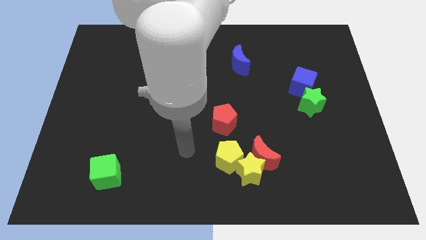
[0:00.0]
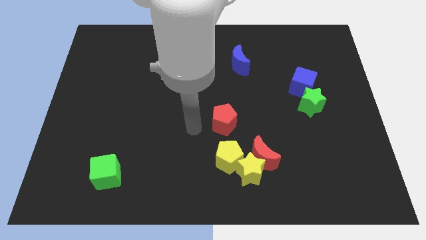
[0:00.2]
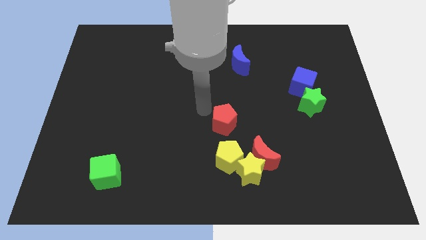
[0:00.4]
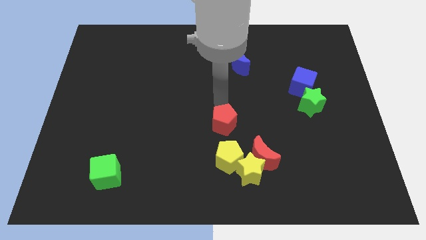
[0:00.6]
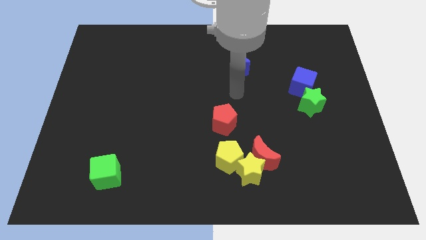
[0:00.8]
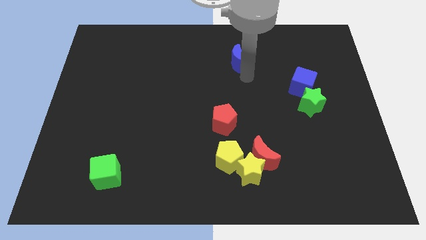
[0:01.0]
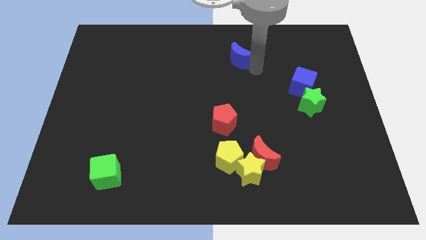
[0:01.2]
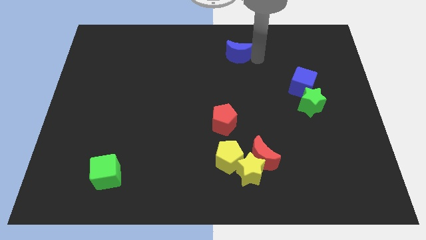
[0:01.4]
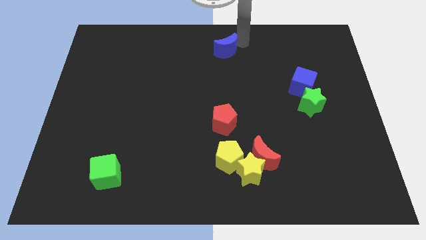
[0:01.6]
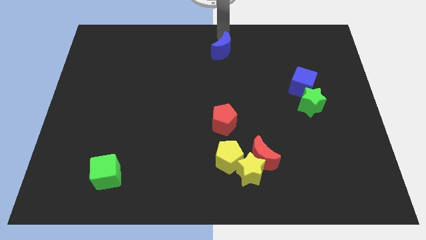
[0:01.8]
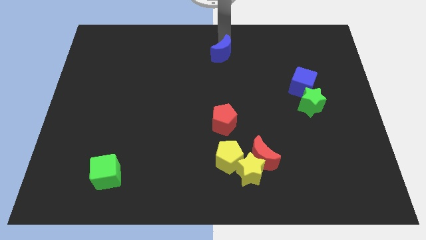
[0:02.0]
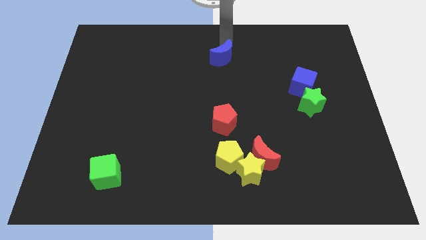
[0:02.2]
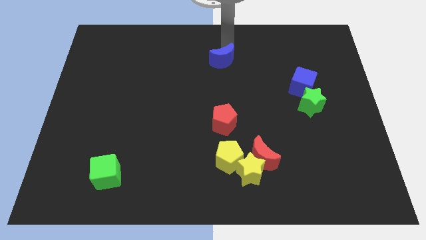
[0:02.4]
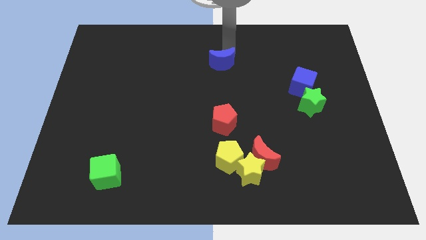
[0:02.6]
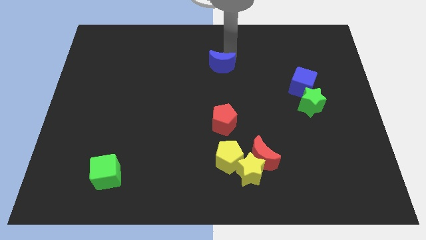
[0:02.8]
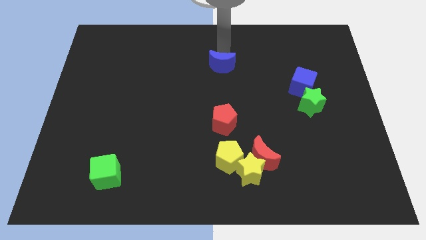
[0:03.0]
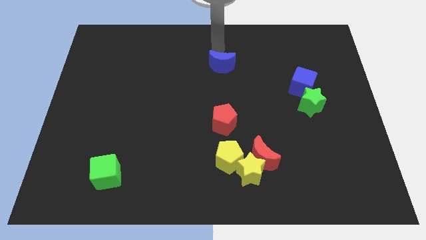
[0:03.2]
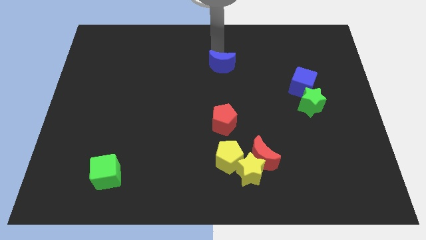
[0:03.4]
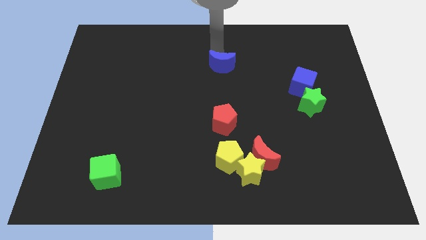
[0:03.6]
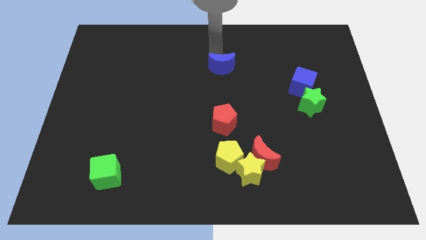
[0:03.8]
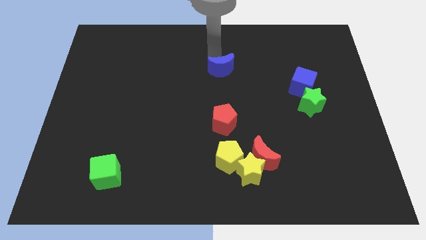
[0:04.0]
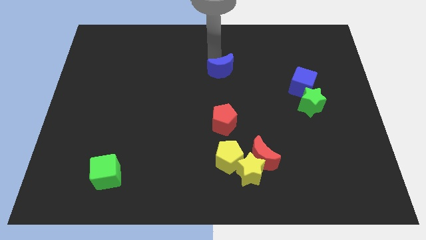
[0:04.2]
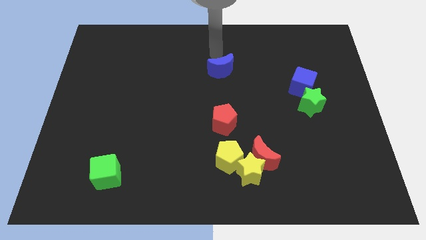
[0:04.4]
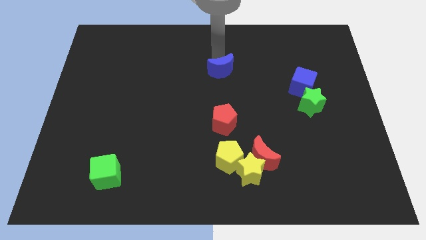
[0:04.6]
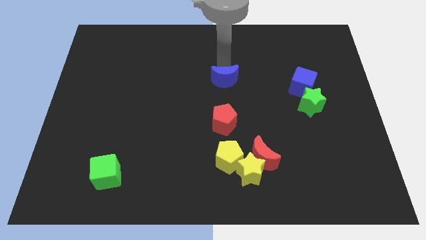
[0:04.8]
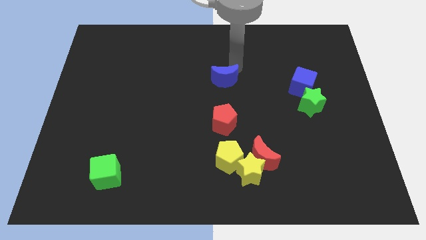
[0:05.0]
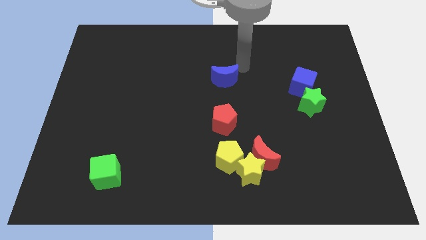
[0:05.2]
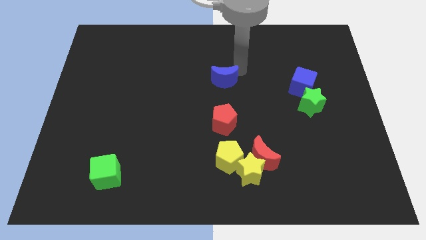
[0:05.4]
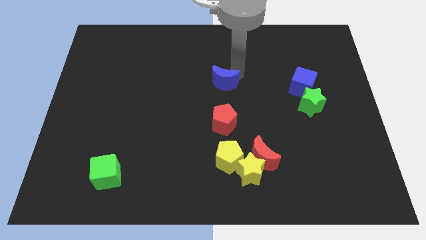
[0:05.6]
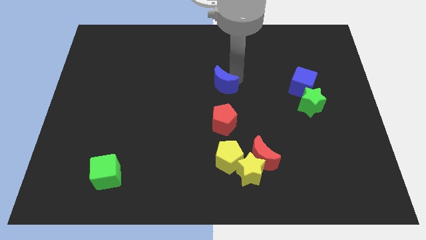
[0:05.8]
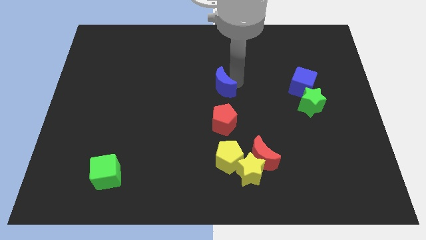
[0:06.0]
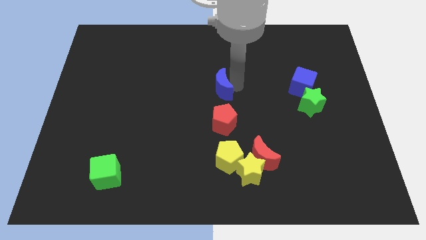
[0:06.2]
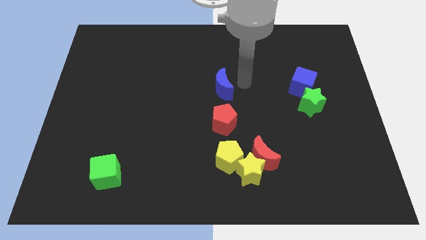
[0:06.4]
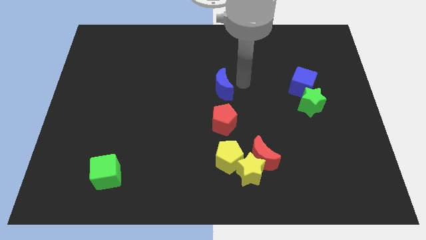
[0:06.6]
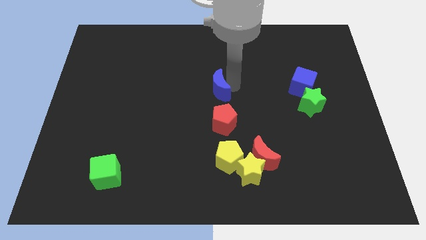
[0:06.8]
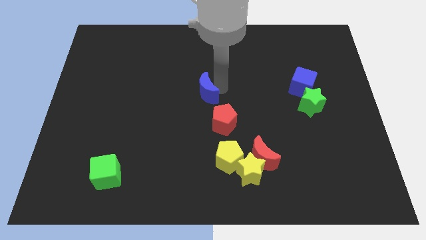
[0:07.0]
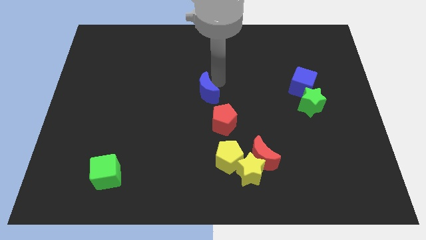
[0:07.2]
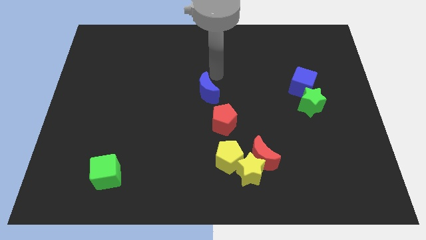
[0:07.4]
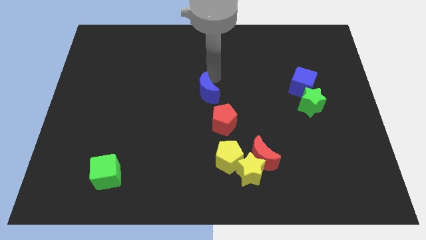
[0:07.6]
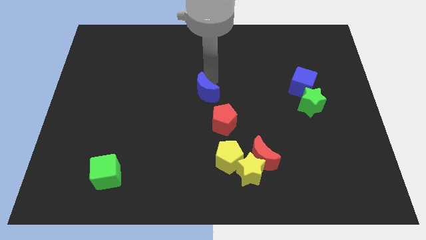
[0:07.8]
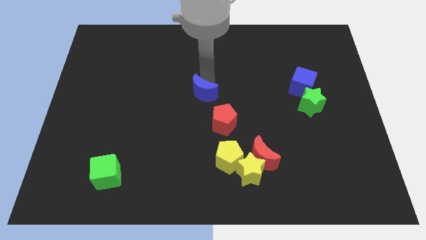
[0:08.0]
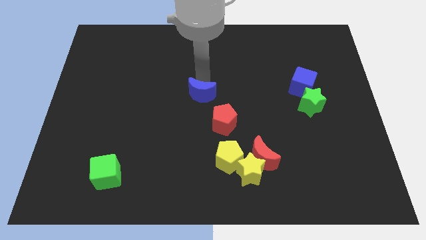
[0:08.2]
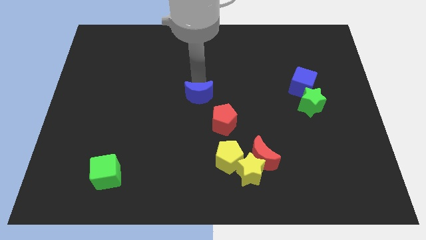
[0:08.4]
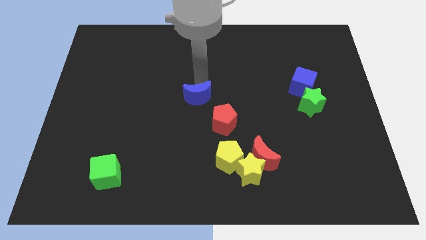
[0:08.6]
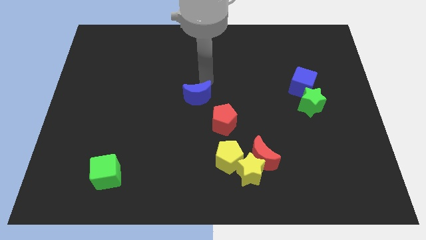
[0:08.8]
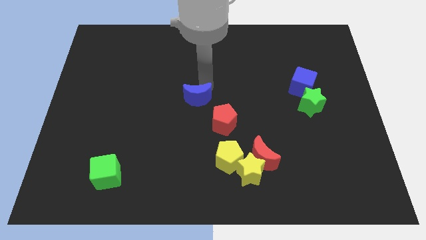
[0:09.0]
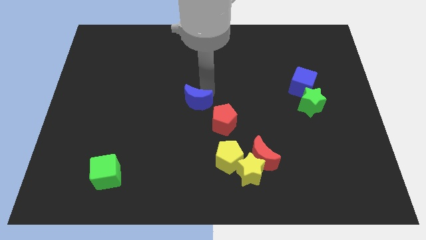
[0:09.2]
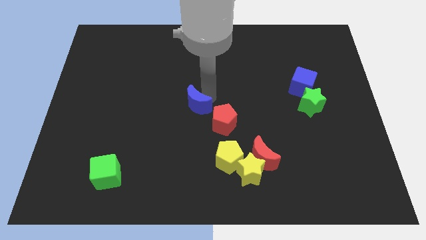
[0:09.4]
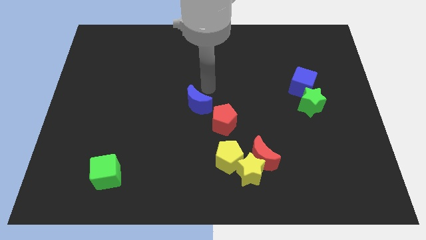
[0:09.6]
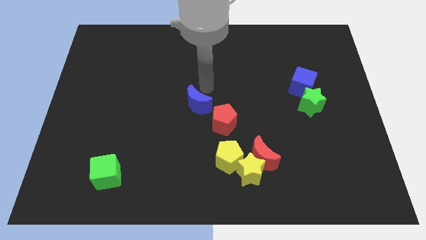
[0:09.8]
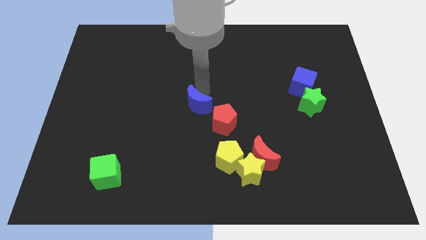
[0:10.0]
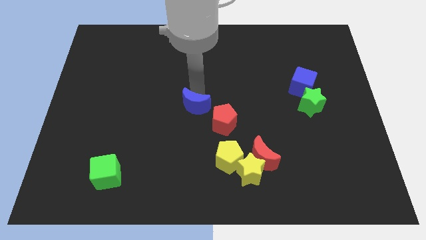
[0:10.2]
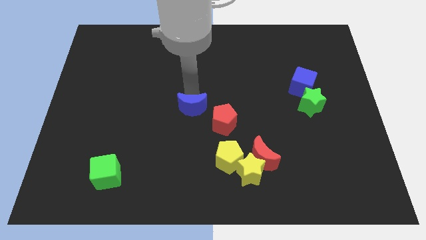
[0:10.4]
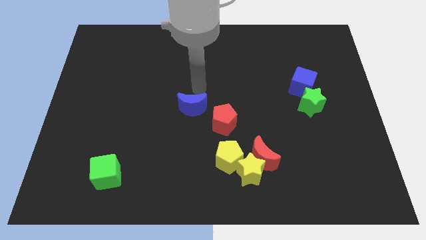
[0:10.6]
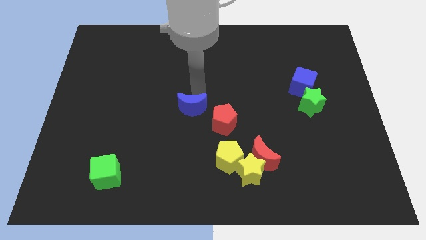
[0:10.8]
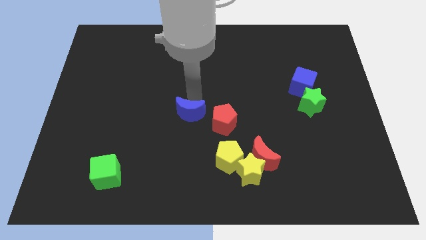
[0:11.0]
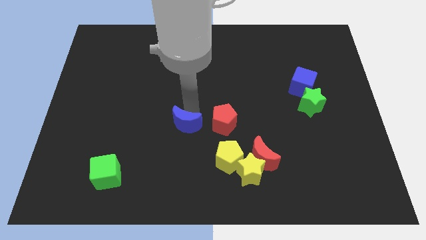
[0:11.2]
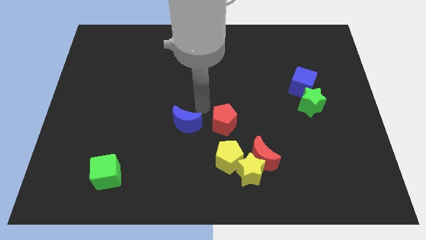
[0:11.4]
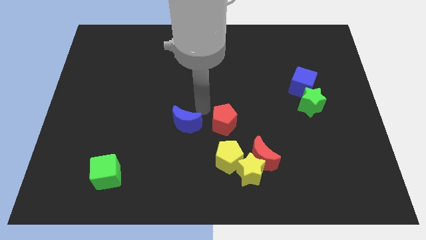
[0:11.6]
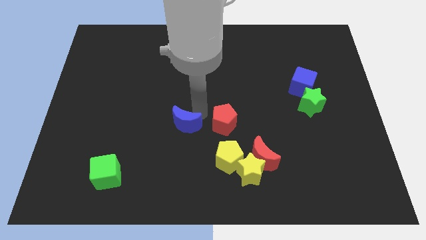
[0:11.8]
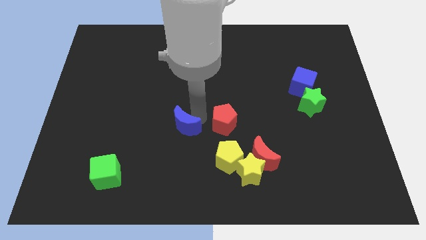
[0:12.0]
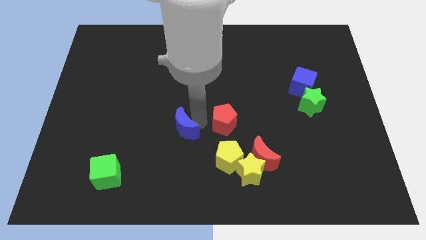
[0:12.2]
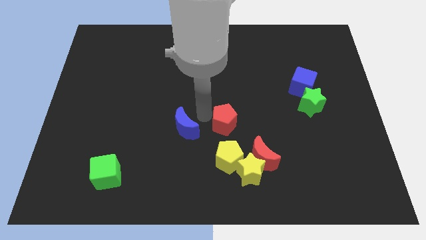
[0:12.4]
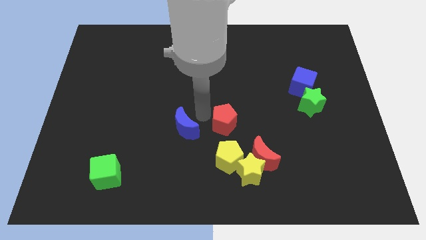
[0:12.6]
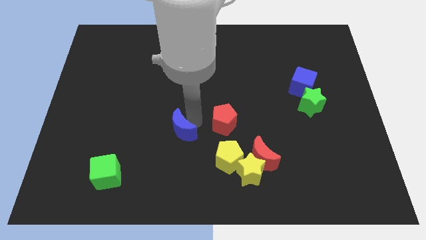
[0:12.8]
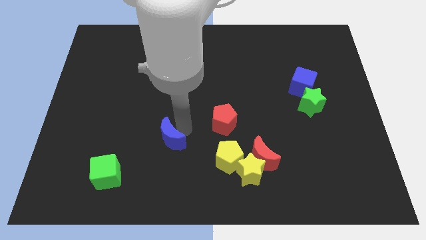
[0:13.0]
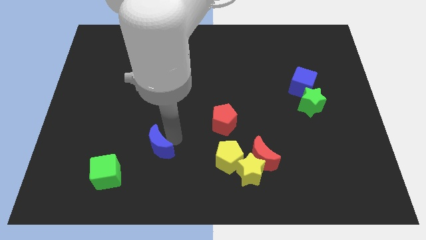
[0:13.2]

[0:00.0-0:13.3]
push the blue moon diagonally up and to the right of the green cube
